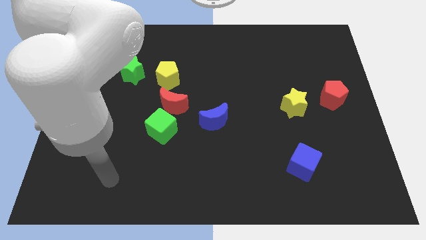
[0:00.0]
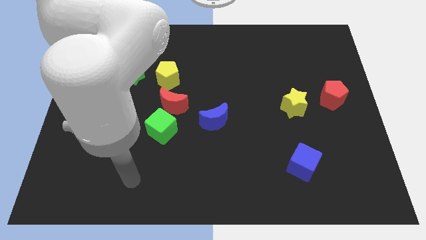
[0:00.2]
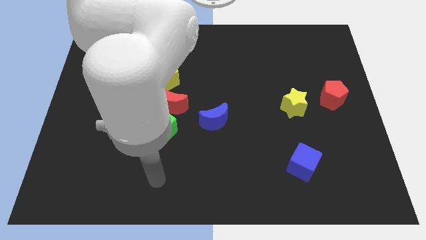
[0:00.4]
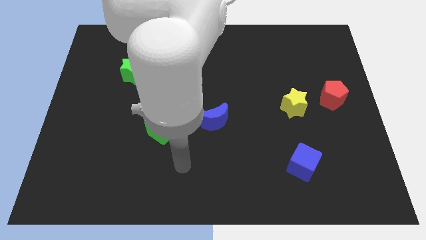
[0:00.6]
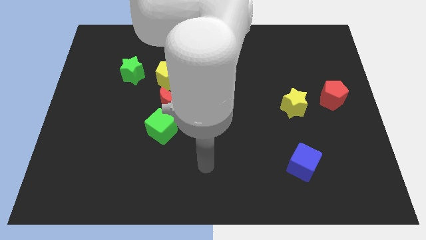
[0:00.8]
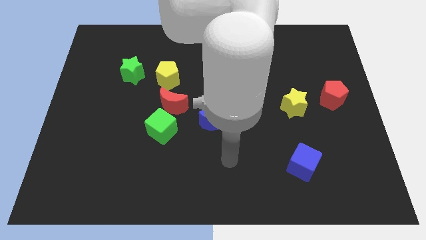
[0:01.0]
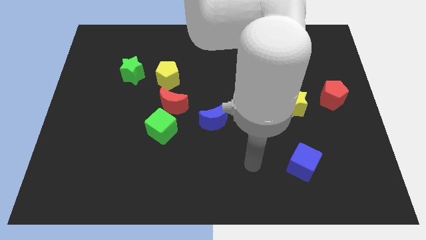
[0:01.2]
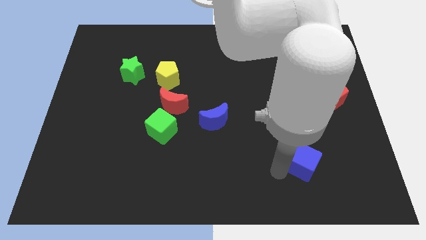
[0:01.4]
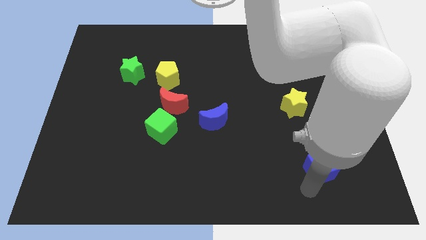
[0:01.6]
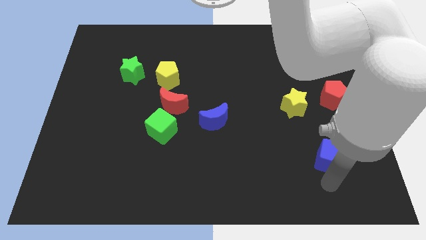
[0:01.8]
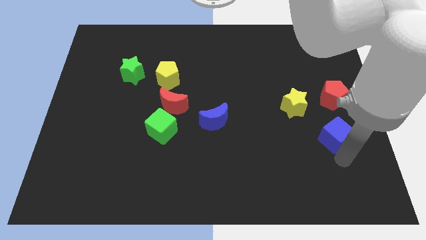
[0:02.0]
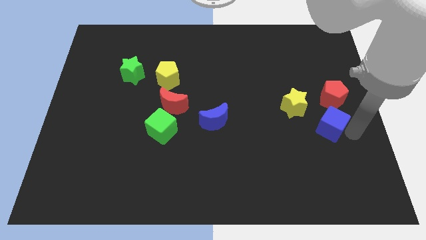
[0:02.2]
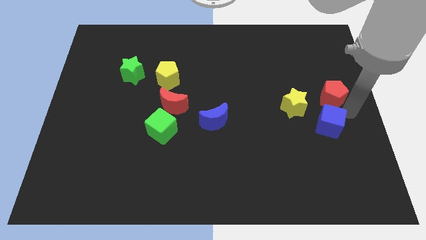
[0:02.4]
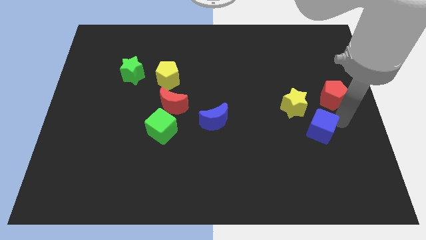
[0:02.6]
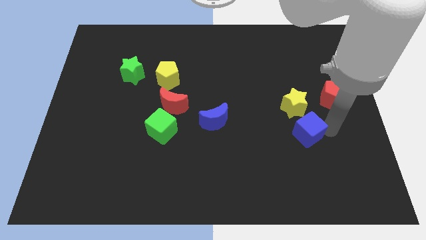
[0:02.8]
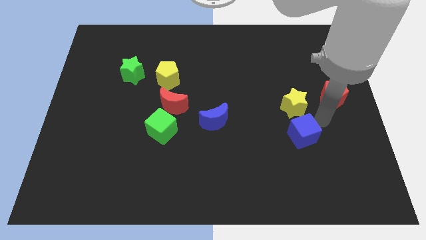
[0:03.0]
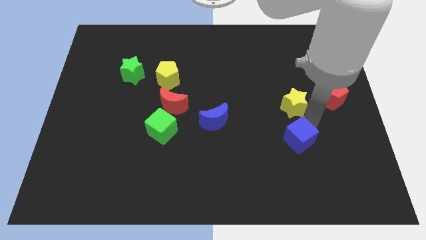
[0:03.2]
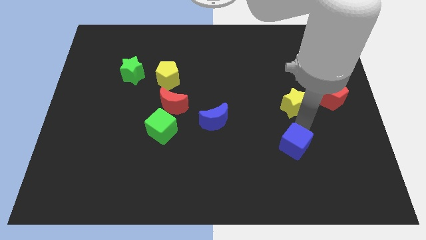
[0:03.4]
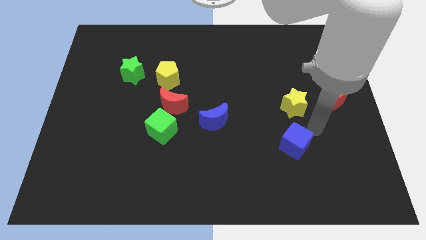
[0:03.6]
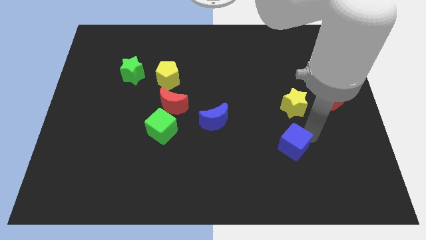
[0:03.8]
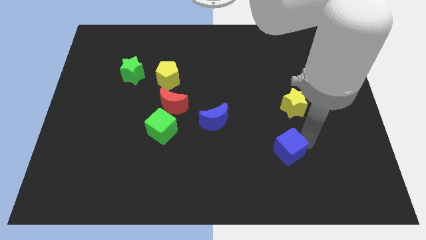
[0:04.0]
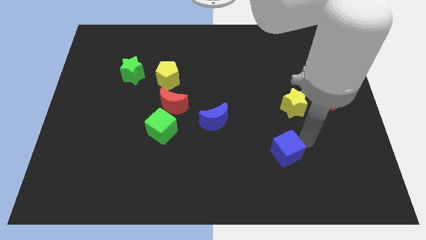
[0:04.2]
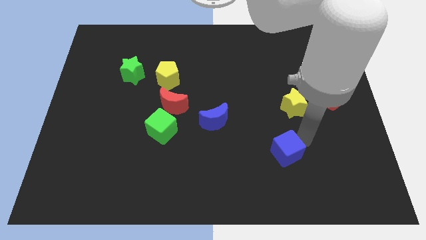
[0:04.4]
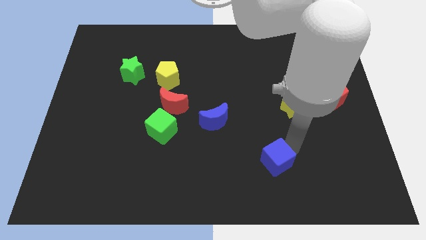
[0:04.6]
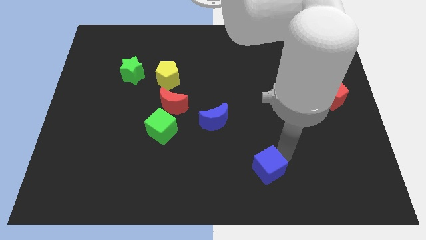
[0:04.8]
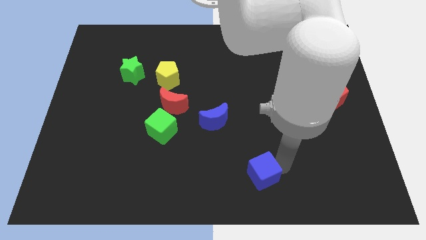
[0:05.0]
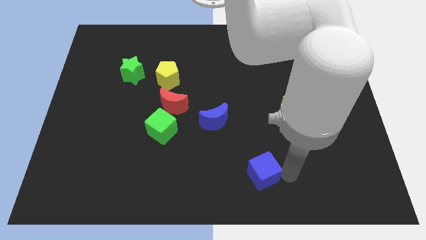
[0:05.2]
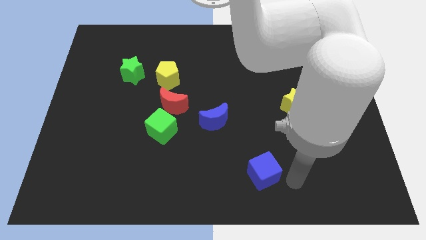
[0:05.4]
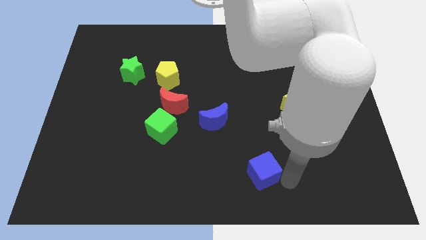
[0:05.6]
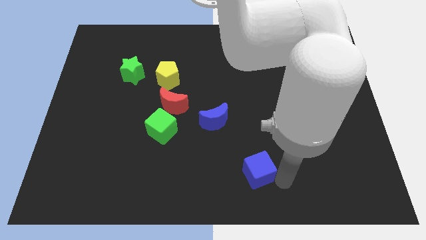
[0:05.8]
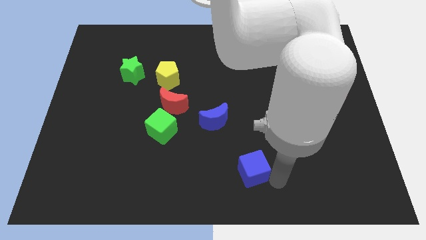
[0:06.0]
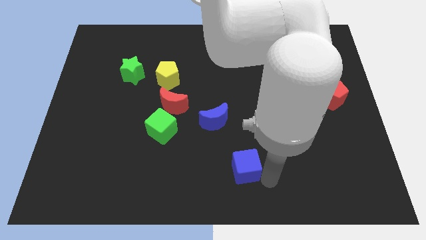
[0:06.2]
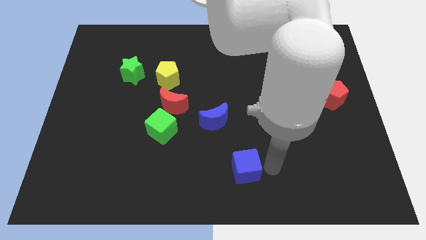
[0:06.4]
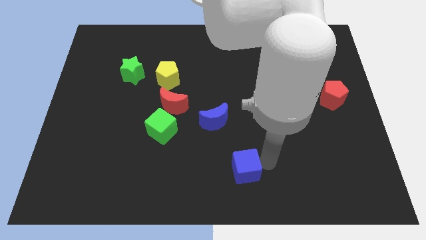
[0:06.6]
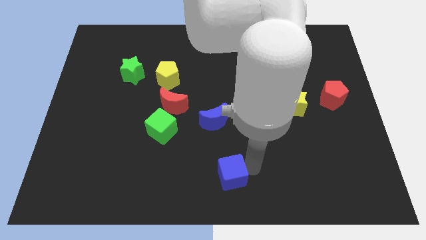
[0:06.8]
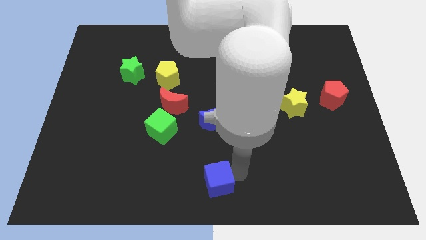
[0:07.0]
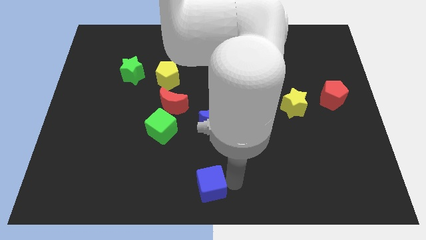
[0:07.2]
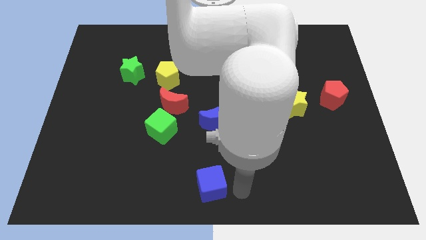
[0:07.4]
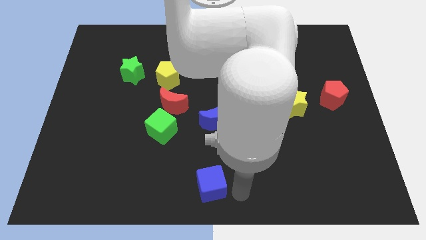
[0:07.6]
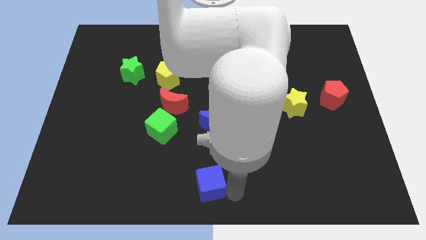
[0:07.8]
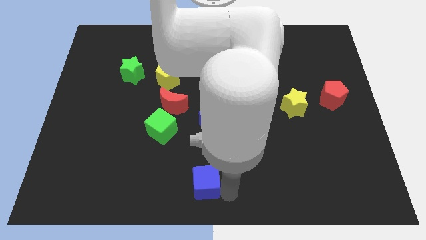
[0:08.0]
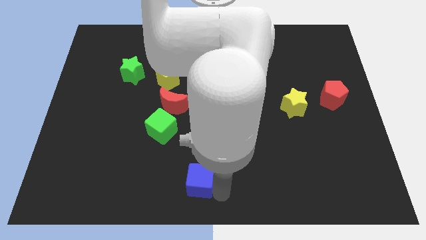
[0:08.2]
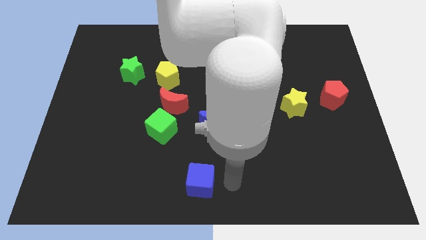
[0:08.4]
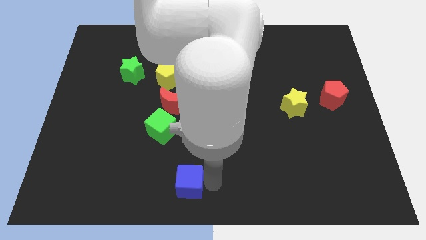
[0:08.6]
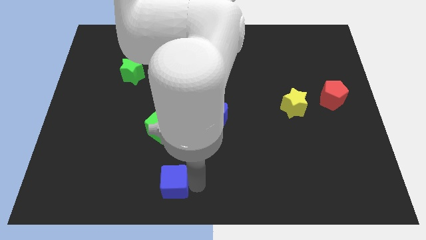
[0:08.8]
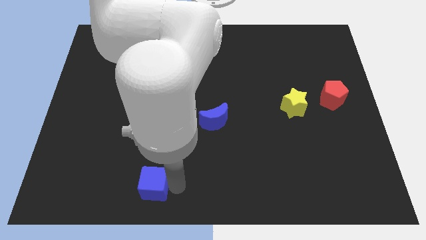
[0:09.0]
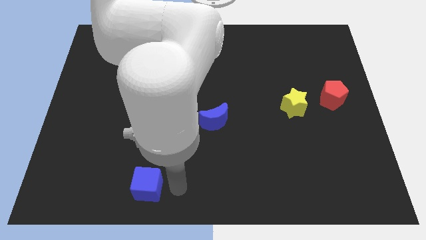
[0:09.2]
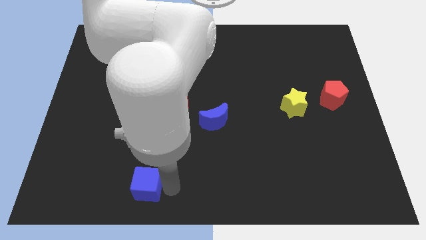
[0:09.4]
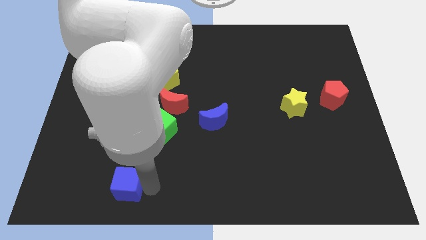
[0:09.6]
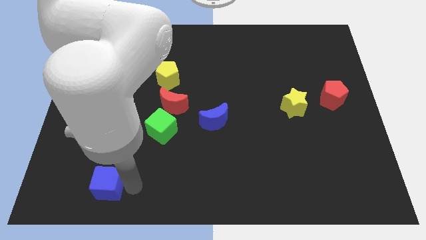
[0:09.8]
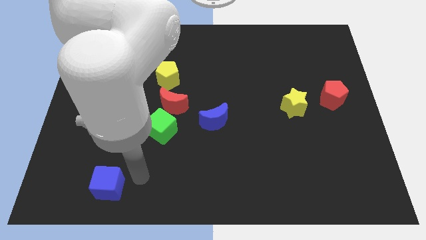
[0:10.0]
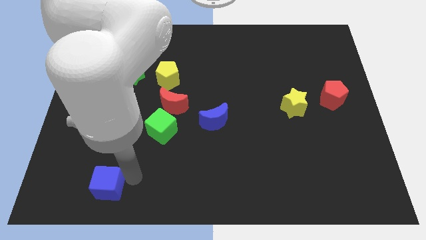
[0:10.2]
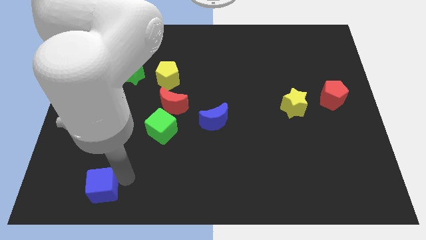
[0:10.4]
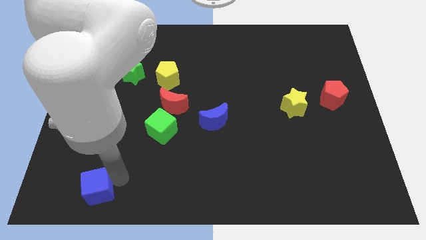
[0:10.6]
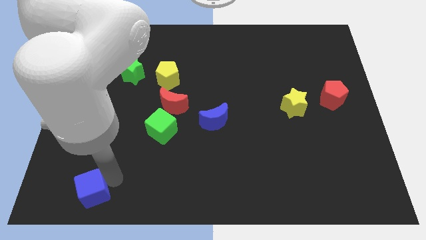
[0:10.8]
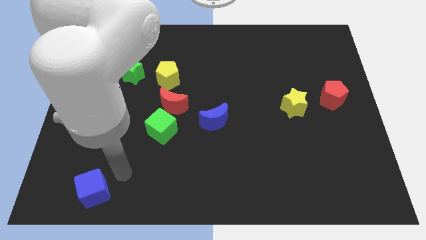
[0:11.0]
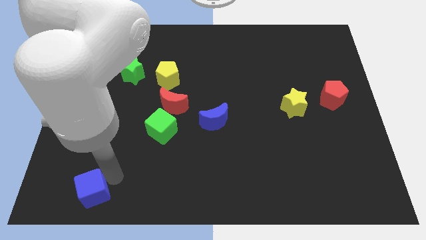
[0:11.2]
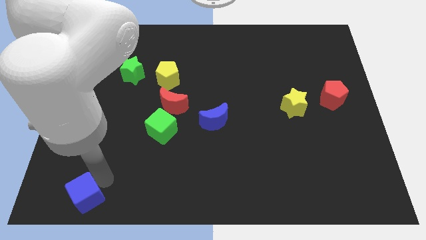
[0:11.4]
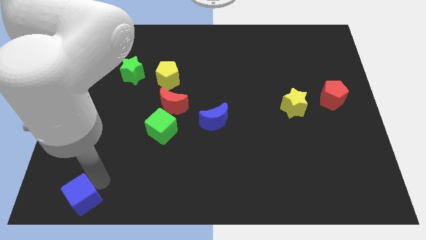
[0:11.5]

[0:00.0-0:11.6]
move the blue cube to the bottom left corner

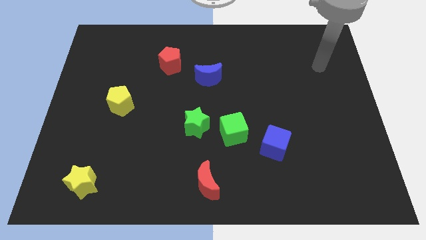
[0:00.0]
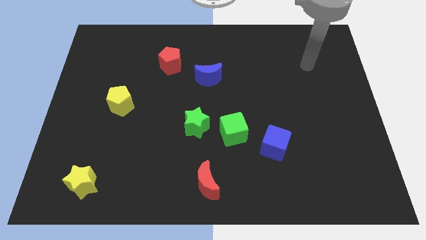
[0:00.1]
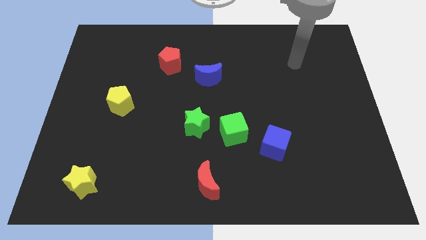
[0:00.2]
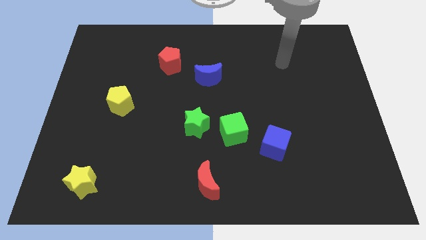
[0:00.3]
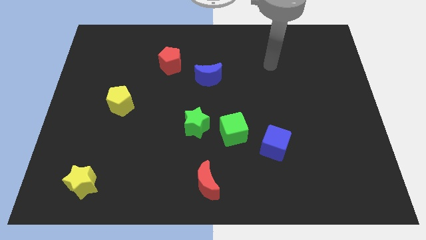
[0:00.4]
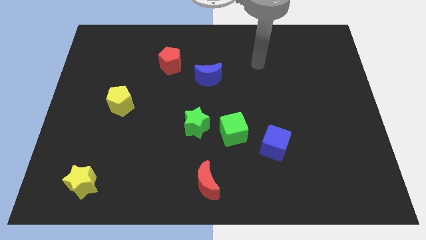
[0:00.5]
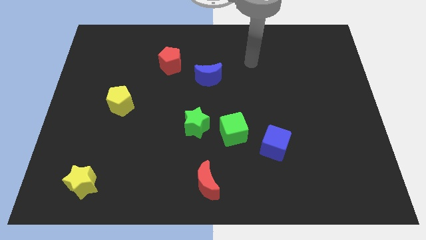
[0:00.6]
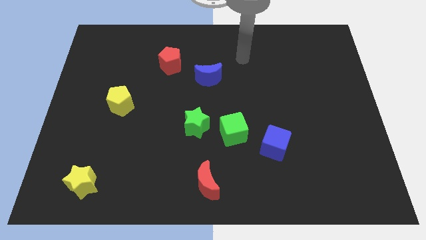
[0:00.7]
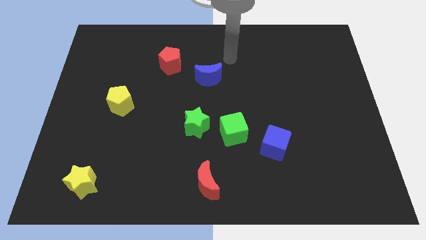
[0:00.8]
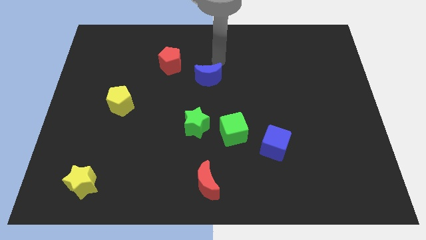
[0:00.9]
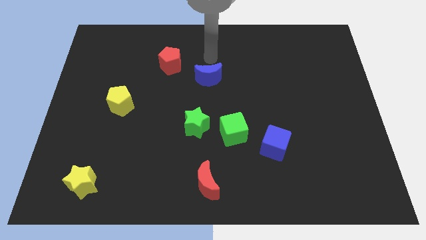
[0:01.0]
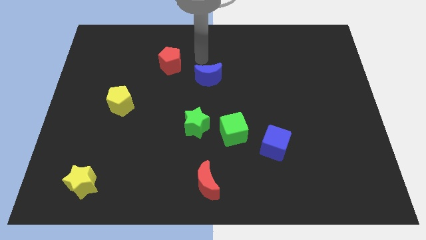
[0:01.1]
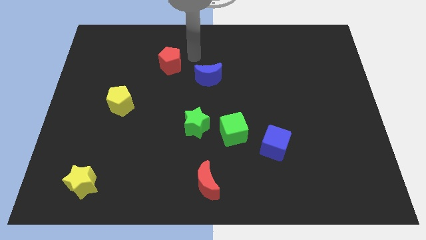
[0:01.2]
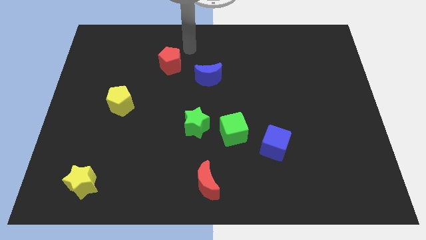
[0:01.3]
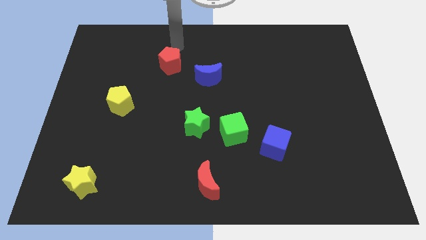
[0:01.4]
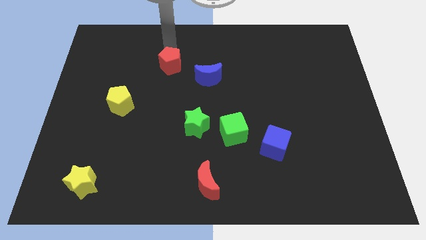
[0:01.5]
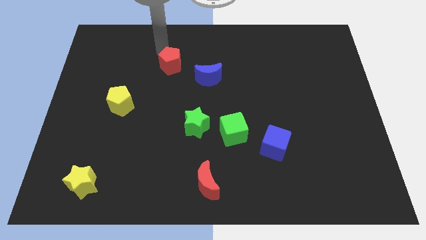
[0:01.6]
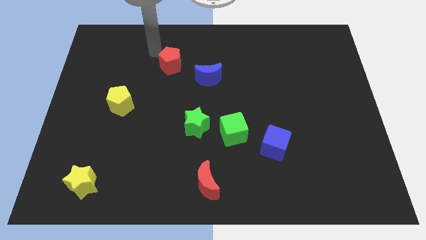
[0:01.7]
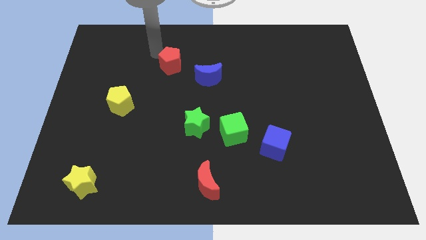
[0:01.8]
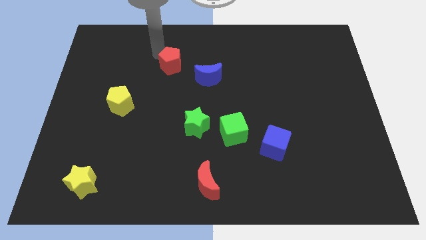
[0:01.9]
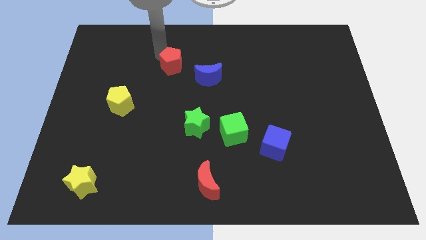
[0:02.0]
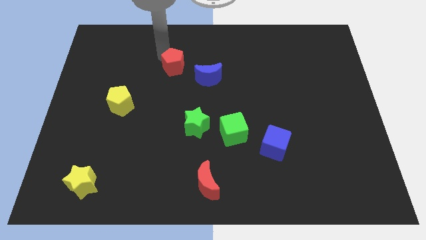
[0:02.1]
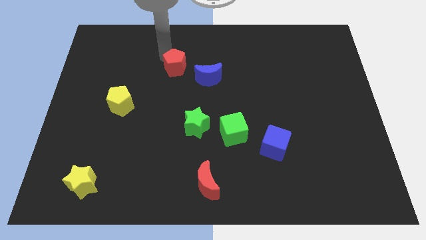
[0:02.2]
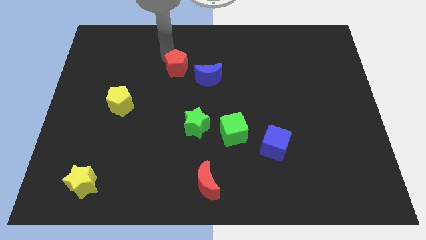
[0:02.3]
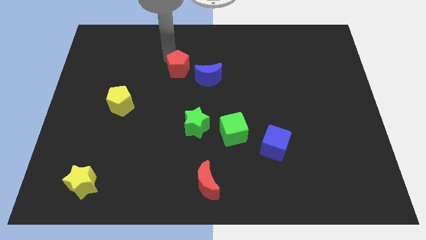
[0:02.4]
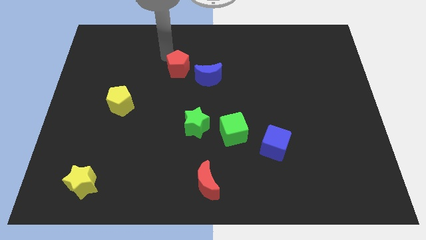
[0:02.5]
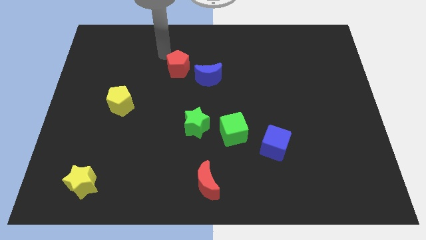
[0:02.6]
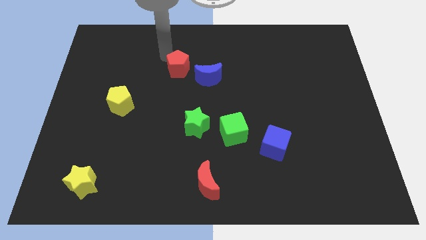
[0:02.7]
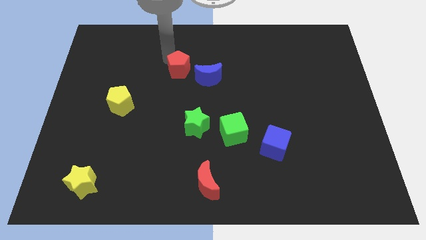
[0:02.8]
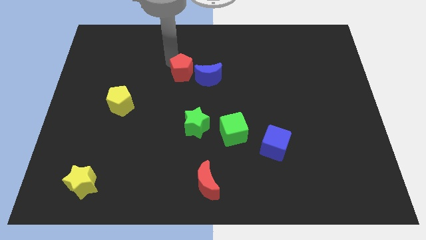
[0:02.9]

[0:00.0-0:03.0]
push the red pentagon to the middle
